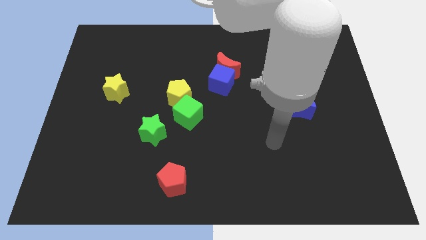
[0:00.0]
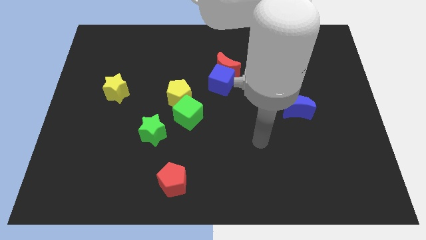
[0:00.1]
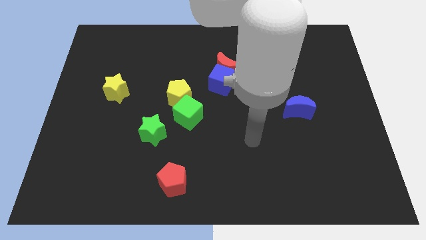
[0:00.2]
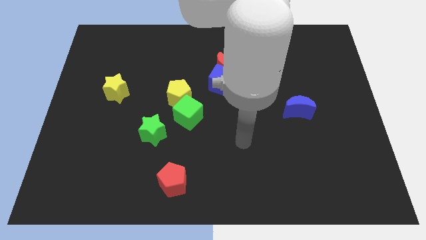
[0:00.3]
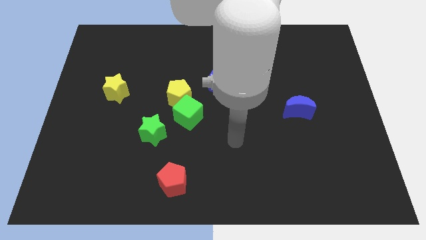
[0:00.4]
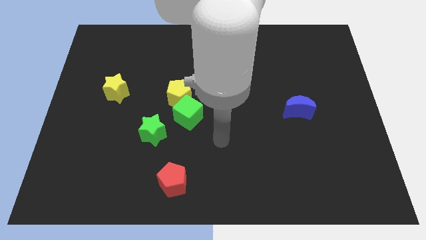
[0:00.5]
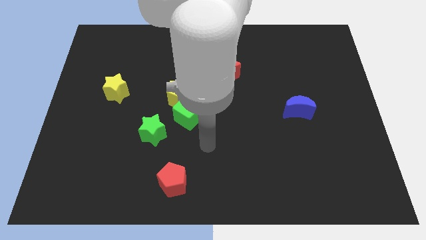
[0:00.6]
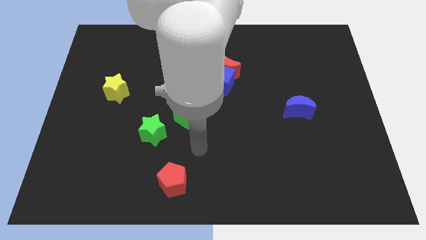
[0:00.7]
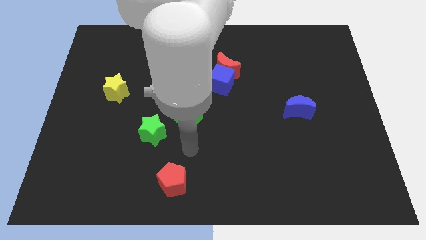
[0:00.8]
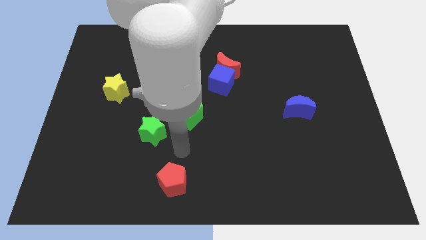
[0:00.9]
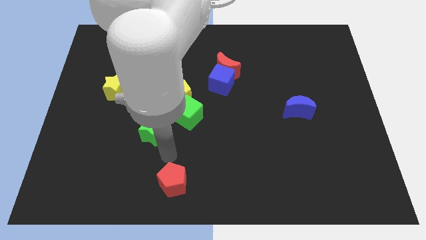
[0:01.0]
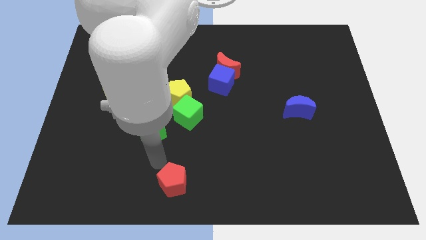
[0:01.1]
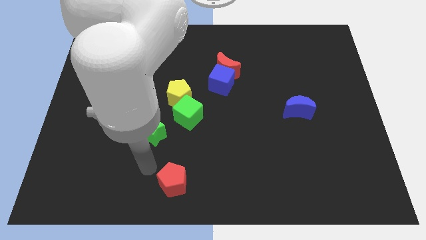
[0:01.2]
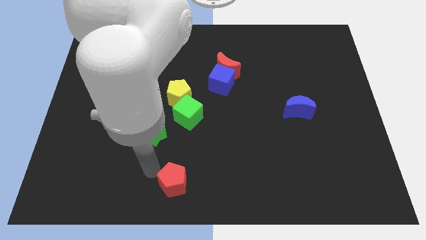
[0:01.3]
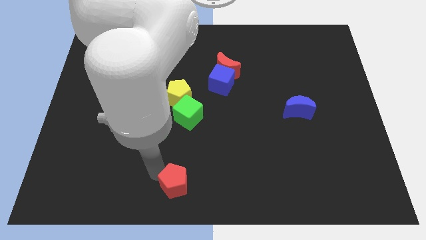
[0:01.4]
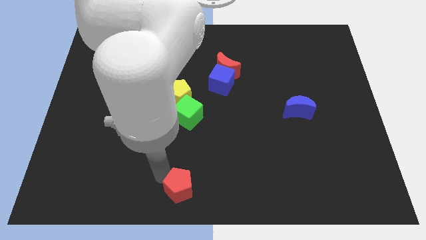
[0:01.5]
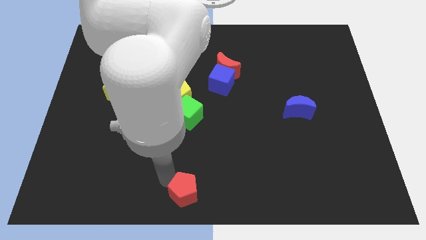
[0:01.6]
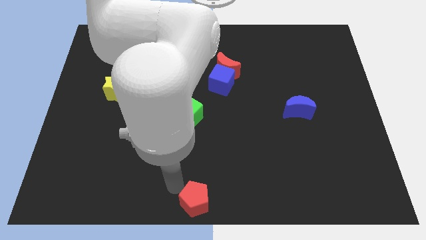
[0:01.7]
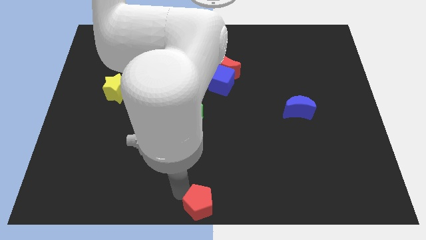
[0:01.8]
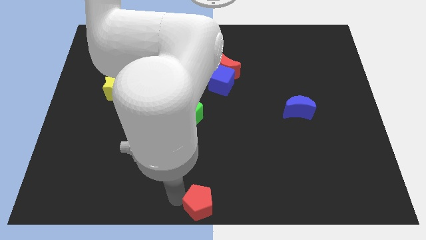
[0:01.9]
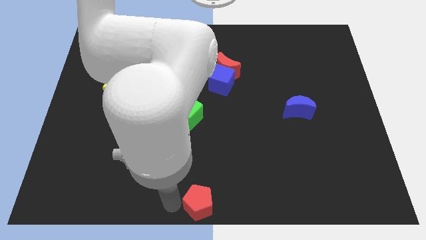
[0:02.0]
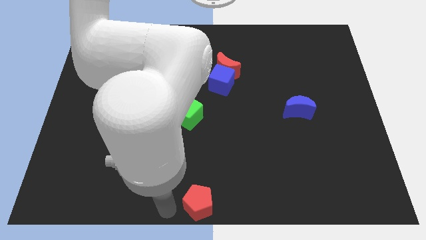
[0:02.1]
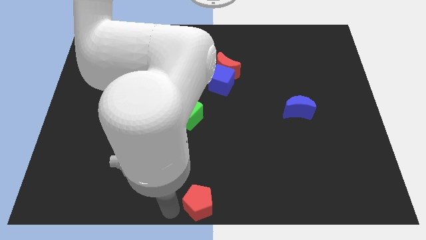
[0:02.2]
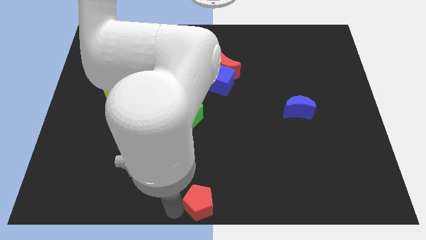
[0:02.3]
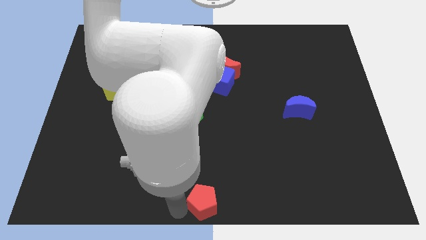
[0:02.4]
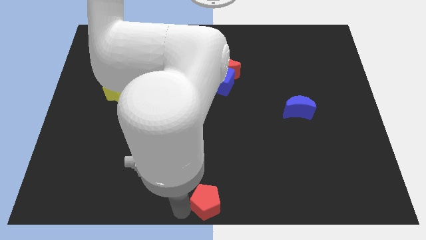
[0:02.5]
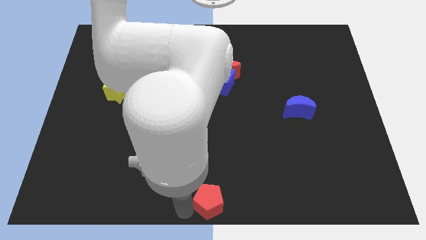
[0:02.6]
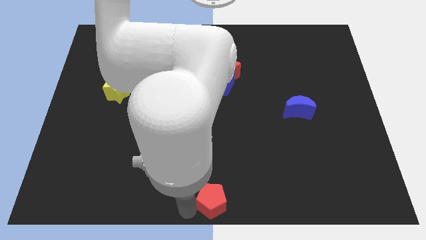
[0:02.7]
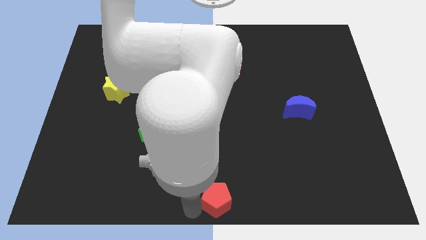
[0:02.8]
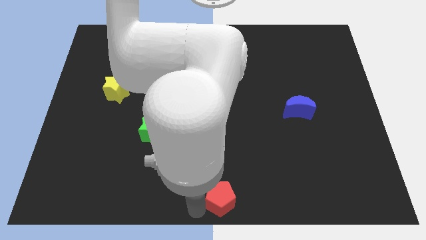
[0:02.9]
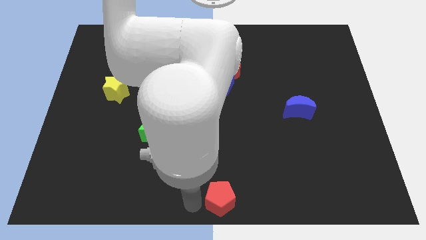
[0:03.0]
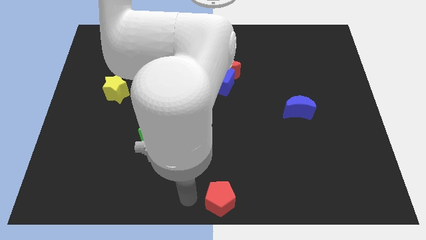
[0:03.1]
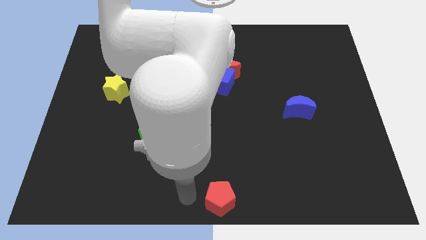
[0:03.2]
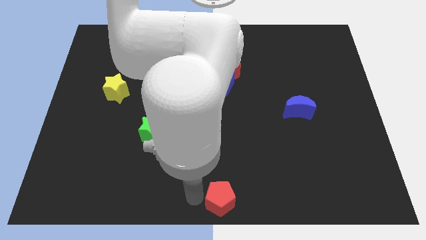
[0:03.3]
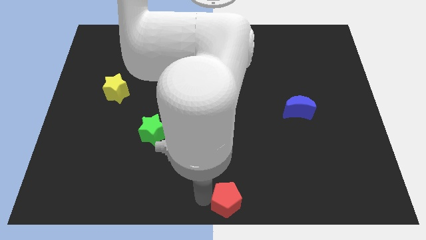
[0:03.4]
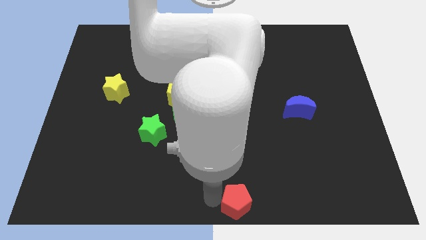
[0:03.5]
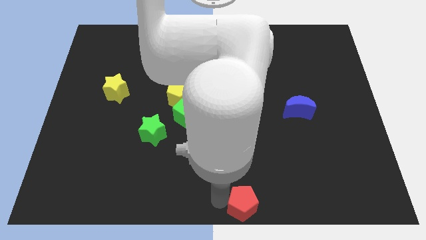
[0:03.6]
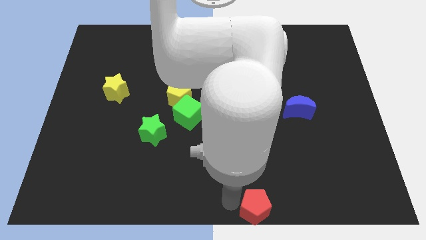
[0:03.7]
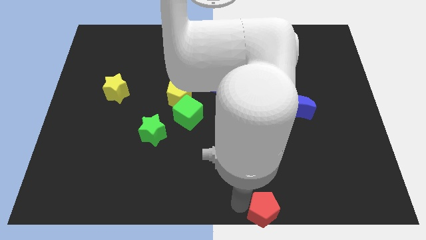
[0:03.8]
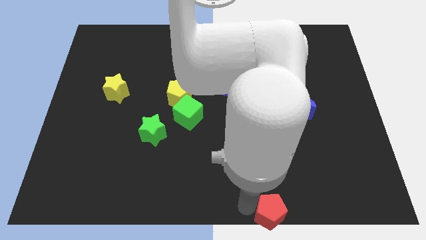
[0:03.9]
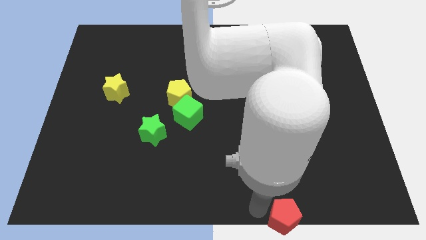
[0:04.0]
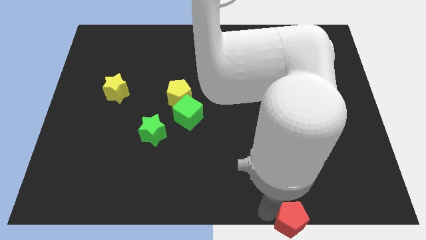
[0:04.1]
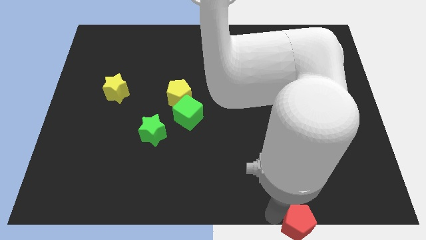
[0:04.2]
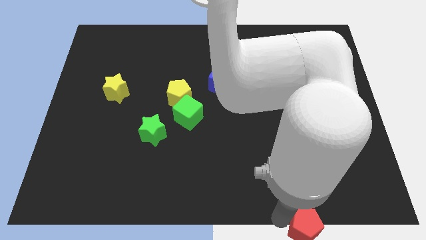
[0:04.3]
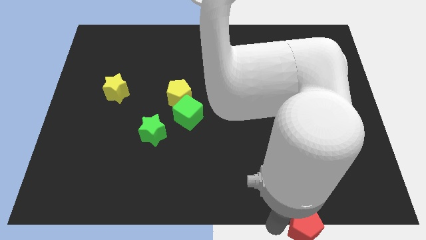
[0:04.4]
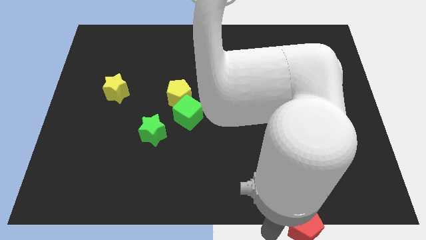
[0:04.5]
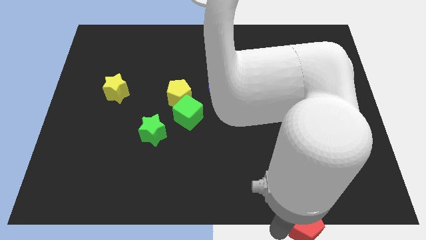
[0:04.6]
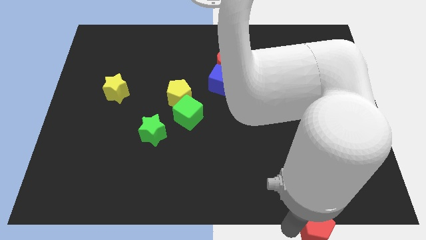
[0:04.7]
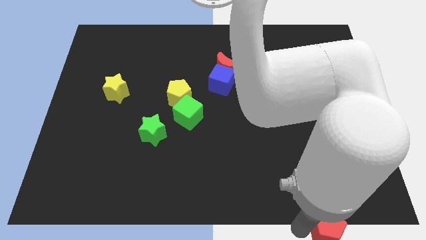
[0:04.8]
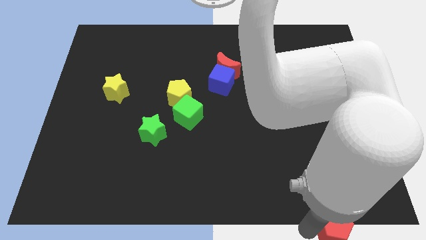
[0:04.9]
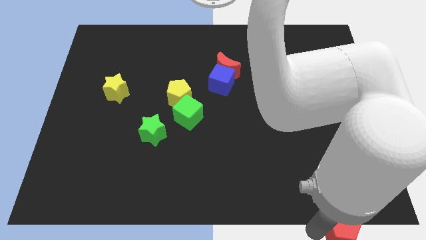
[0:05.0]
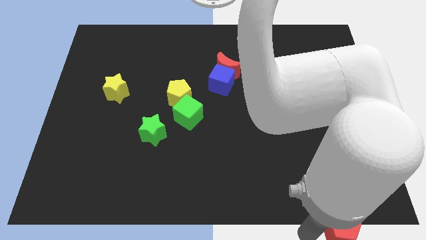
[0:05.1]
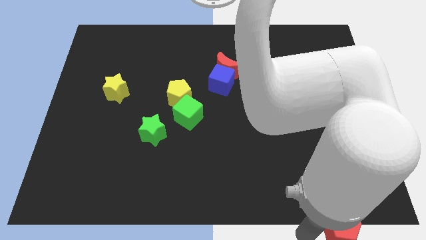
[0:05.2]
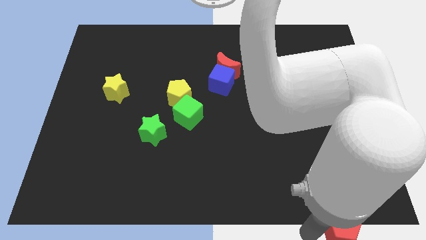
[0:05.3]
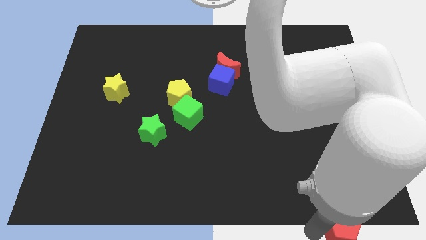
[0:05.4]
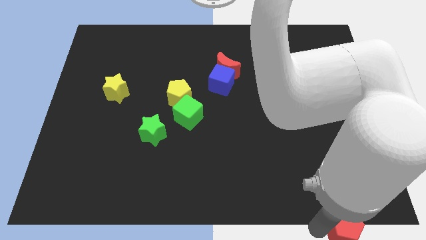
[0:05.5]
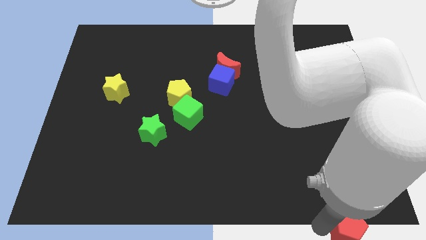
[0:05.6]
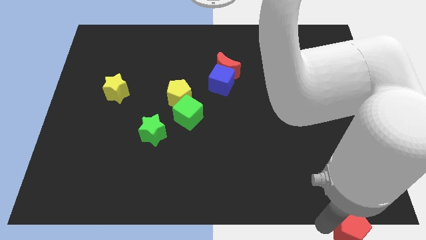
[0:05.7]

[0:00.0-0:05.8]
move the red pentagon to the bottom right
